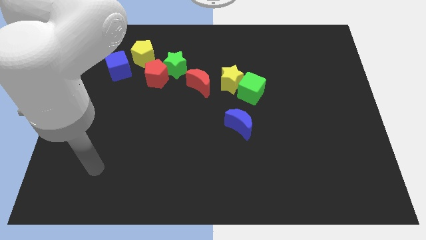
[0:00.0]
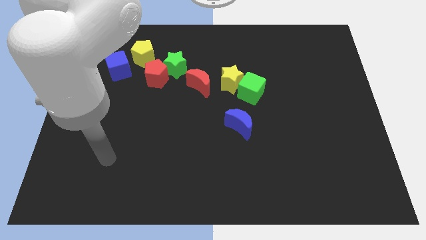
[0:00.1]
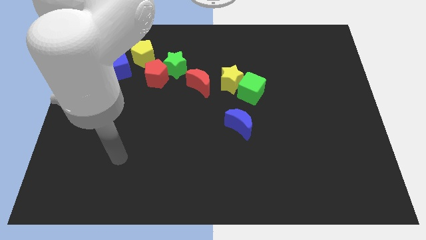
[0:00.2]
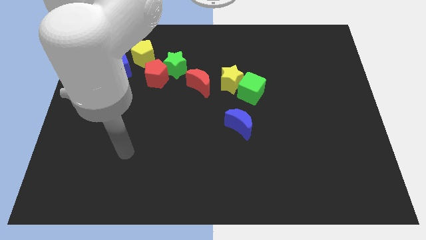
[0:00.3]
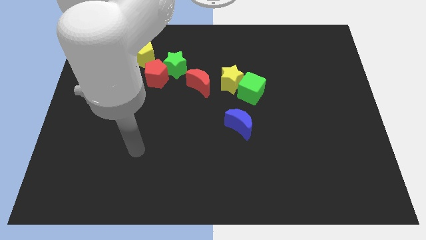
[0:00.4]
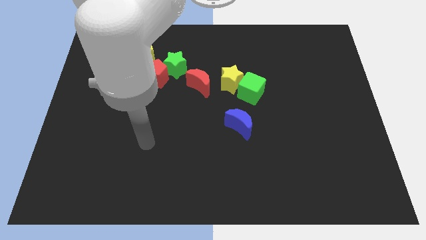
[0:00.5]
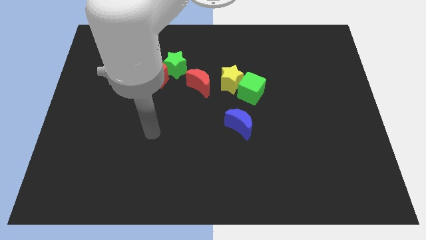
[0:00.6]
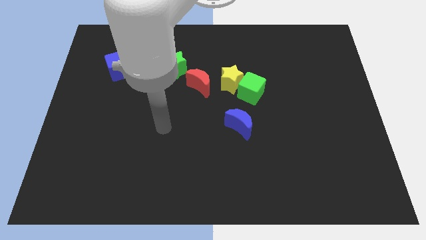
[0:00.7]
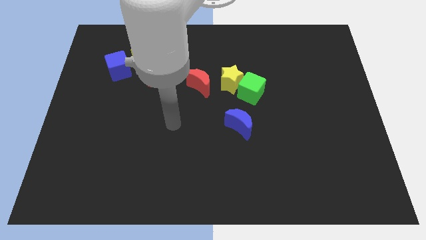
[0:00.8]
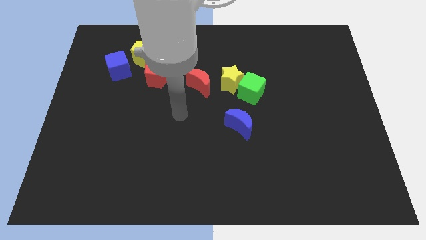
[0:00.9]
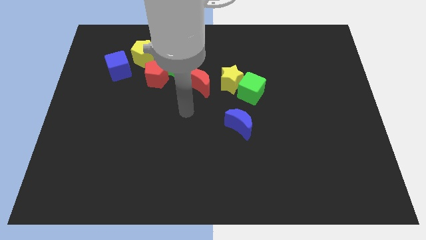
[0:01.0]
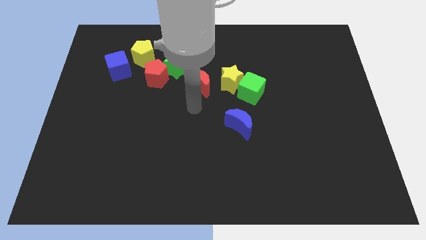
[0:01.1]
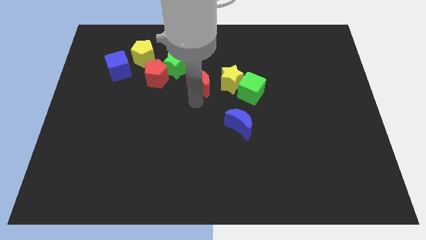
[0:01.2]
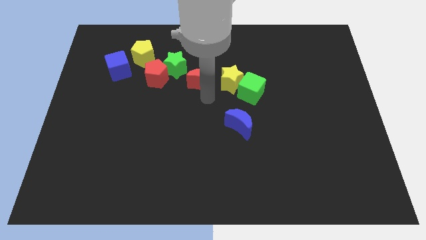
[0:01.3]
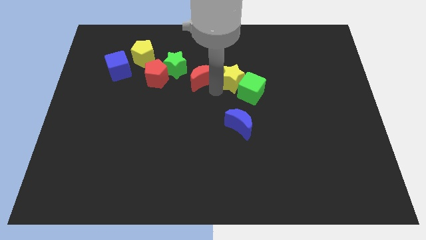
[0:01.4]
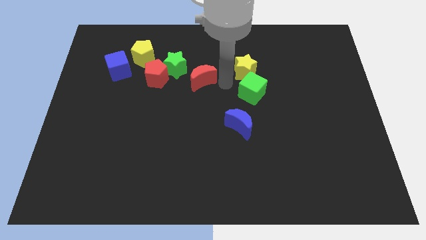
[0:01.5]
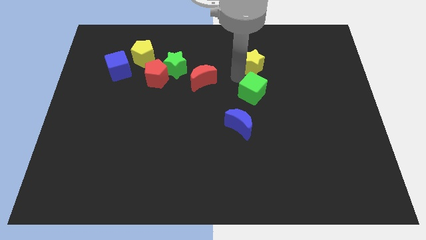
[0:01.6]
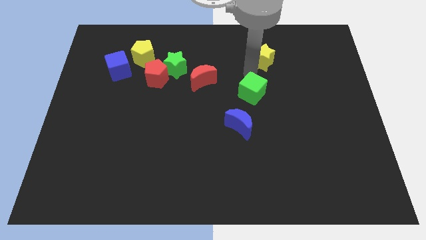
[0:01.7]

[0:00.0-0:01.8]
move the green cube away from the yellow star

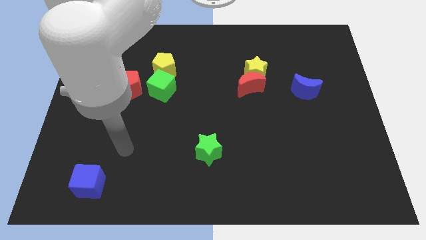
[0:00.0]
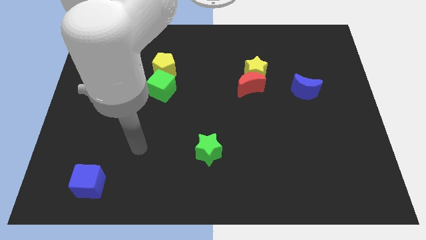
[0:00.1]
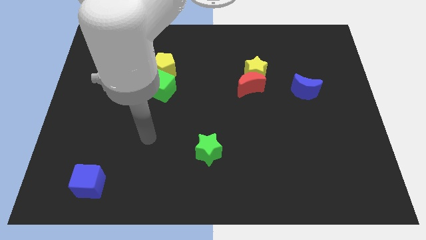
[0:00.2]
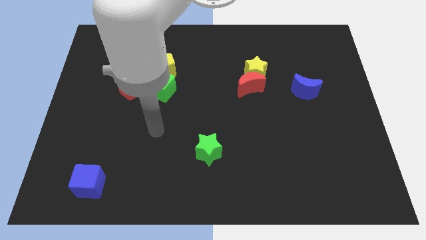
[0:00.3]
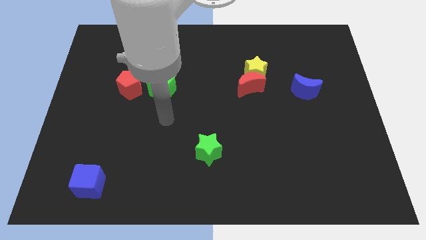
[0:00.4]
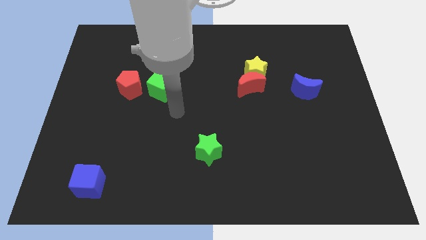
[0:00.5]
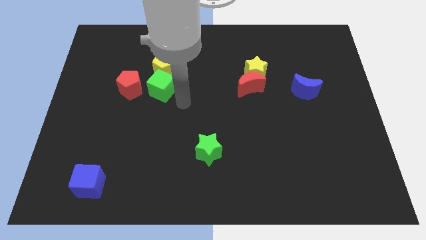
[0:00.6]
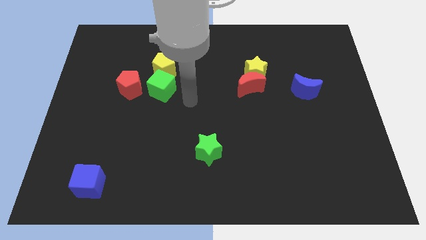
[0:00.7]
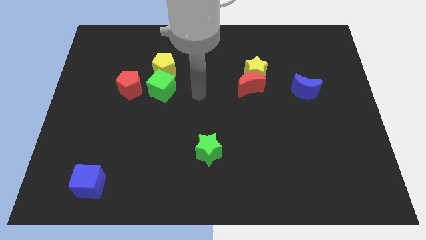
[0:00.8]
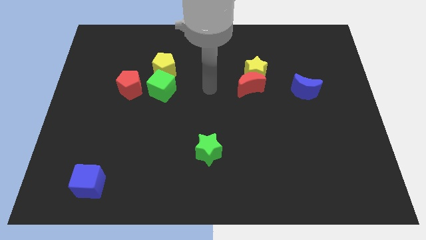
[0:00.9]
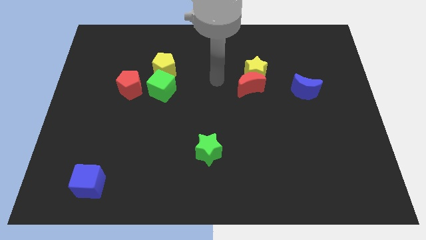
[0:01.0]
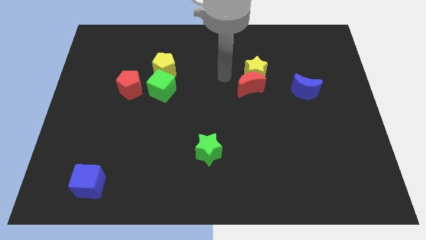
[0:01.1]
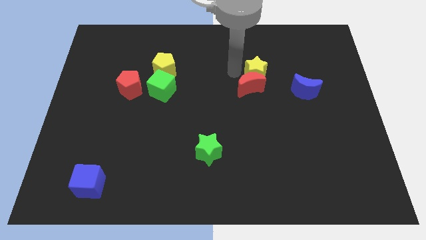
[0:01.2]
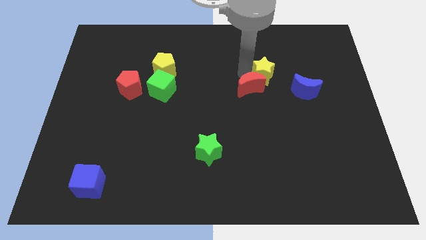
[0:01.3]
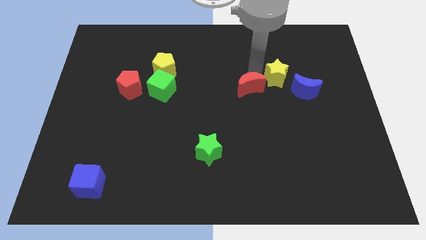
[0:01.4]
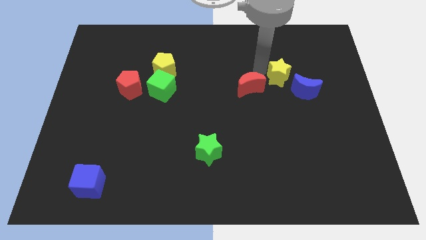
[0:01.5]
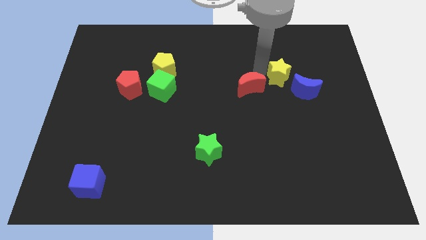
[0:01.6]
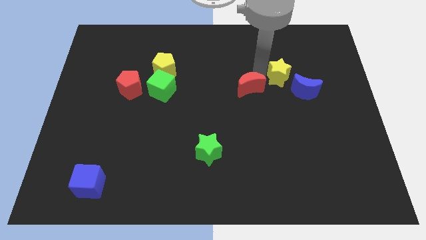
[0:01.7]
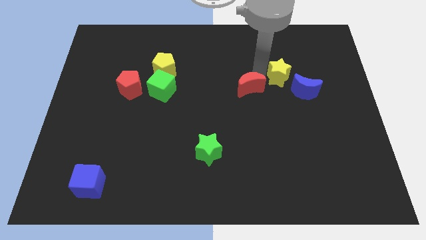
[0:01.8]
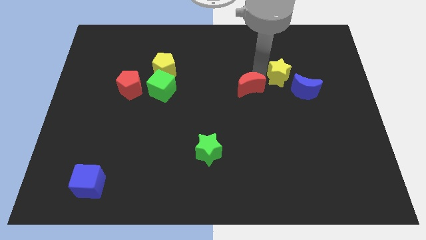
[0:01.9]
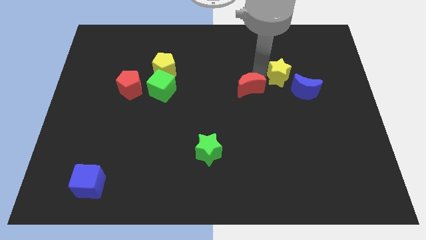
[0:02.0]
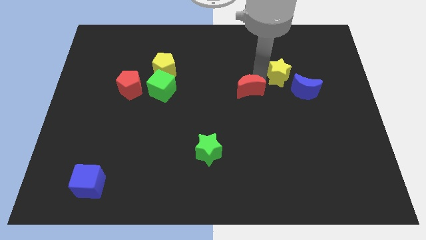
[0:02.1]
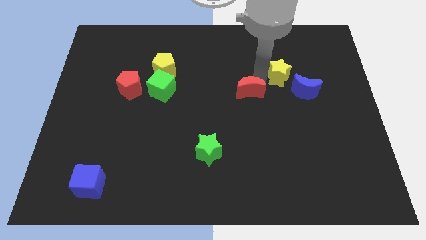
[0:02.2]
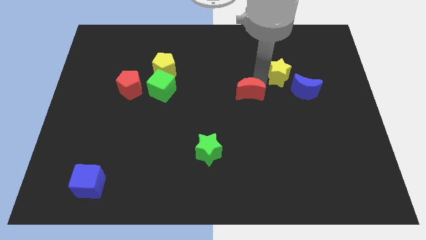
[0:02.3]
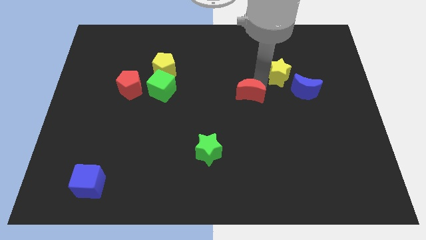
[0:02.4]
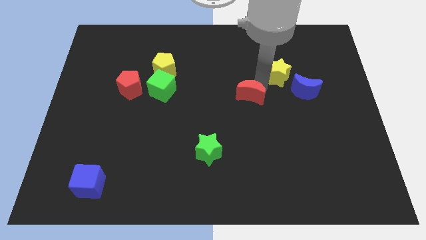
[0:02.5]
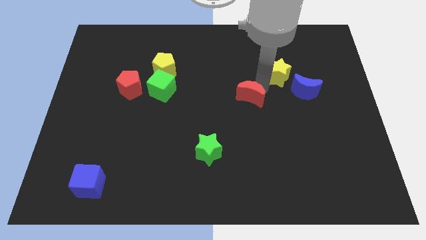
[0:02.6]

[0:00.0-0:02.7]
move the red moon away from the yellow star

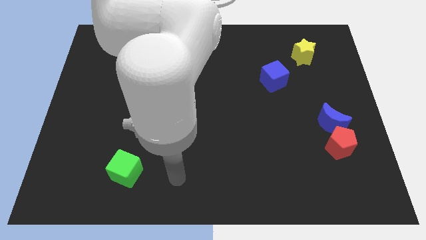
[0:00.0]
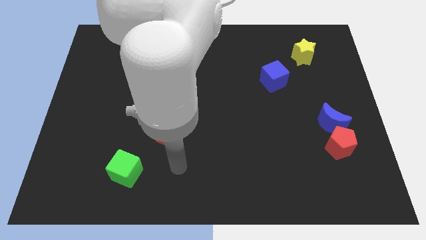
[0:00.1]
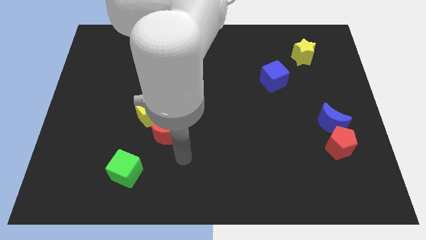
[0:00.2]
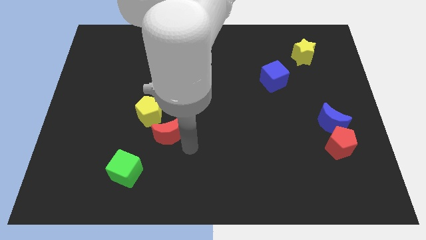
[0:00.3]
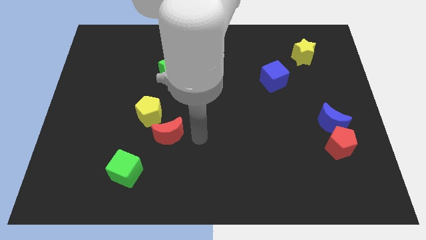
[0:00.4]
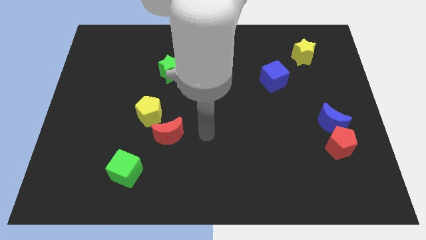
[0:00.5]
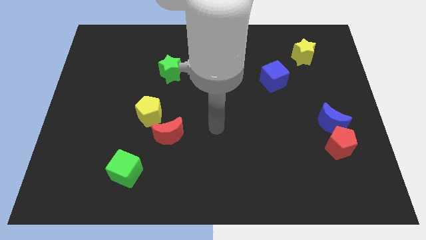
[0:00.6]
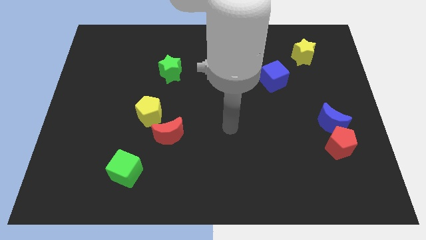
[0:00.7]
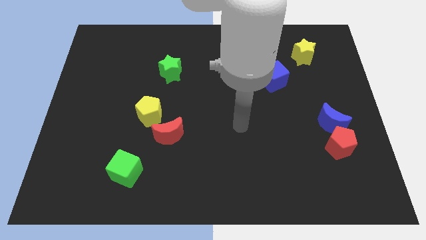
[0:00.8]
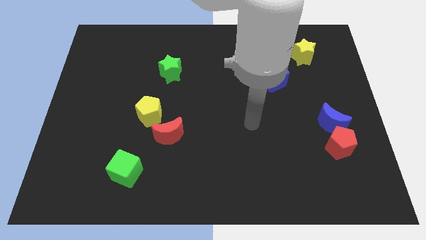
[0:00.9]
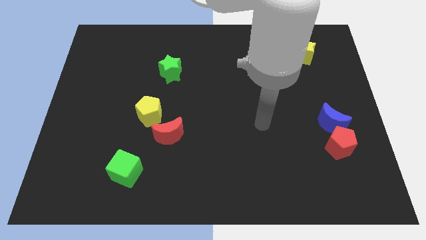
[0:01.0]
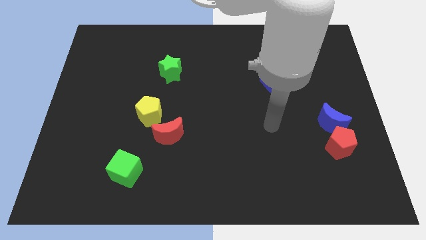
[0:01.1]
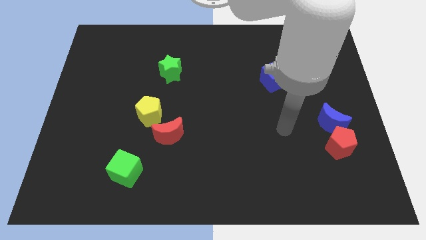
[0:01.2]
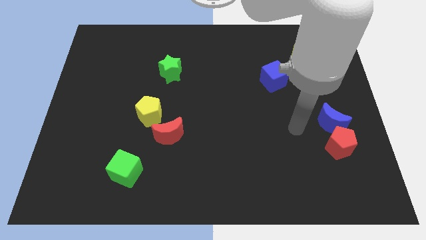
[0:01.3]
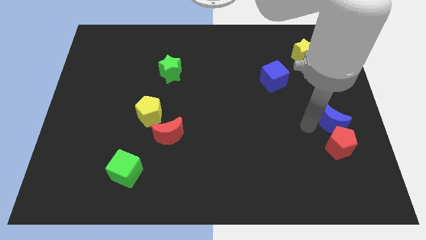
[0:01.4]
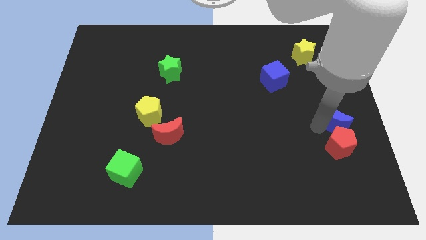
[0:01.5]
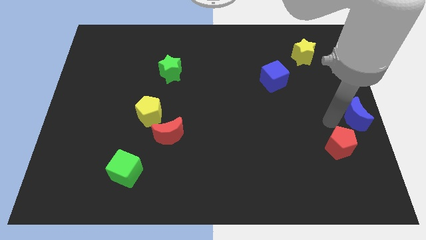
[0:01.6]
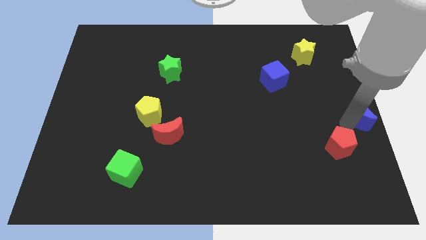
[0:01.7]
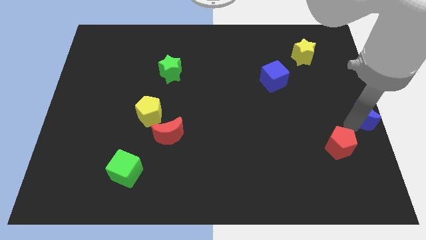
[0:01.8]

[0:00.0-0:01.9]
separate the red pentagon from the blue moon

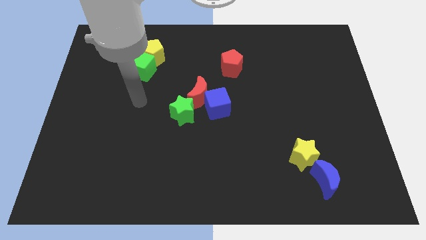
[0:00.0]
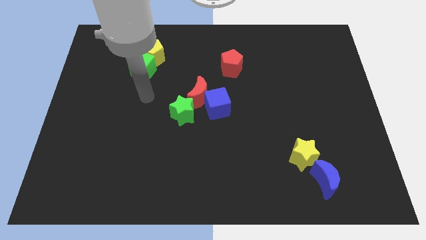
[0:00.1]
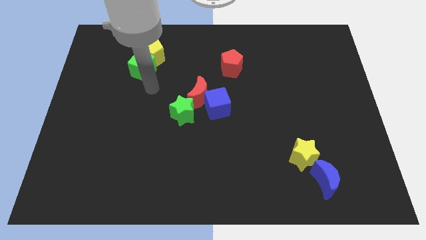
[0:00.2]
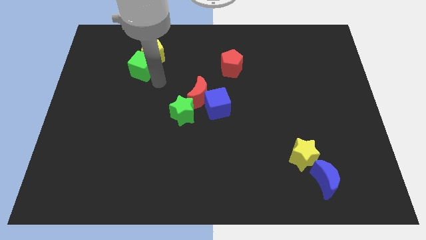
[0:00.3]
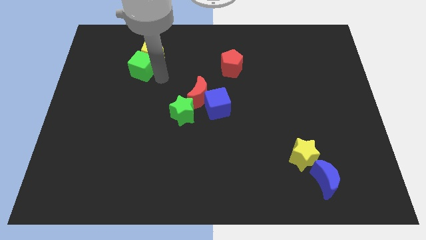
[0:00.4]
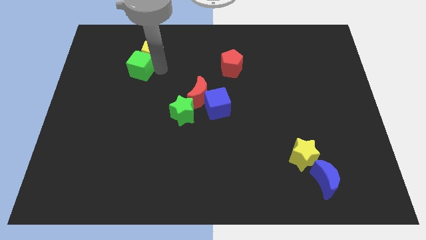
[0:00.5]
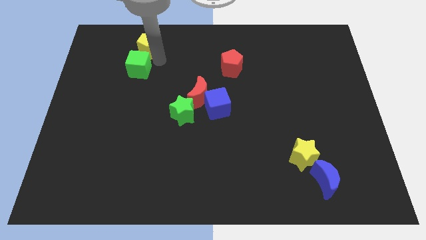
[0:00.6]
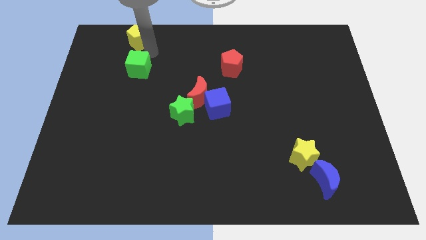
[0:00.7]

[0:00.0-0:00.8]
pull the green cube apart from the yellow pentagon

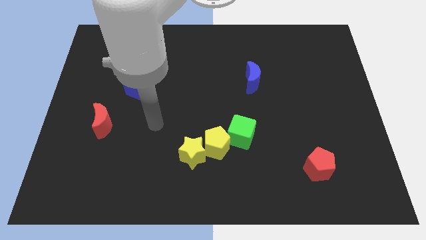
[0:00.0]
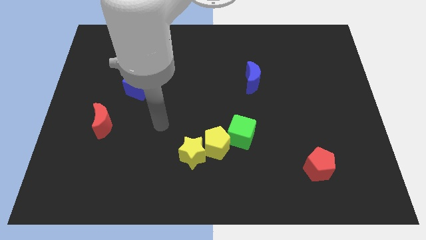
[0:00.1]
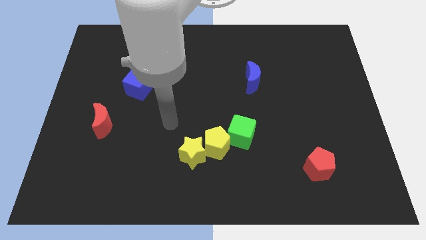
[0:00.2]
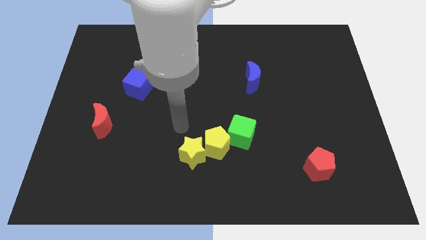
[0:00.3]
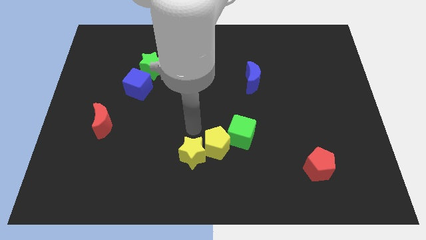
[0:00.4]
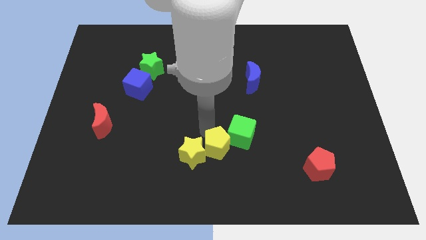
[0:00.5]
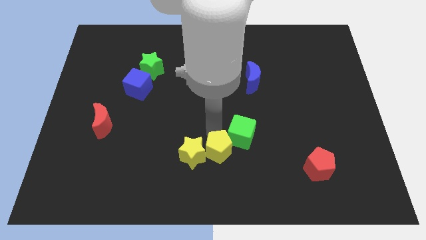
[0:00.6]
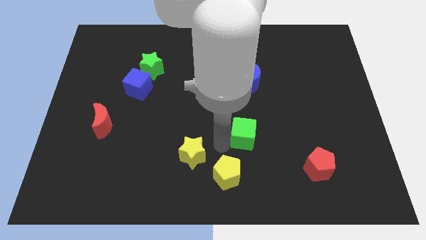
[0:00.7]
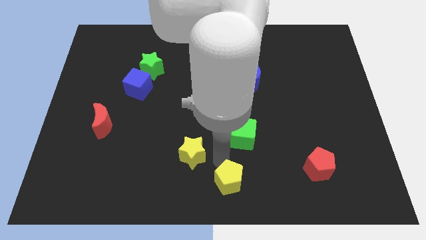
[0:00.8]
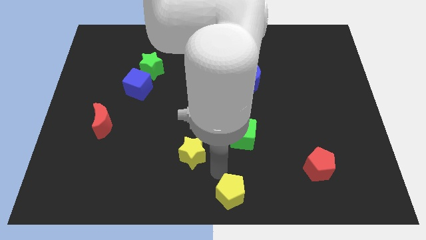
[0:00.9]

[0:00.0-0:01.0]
move the yellow star away from the yellow pentagon

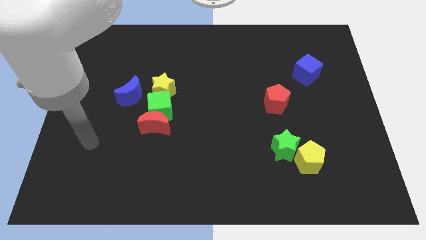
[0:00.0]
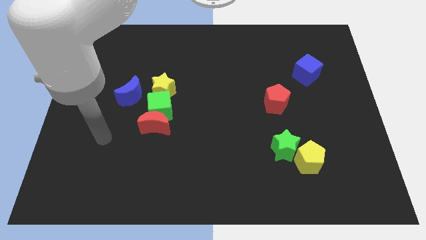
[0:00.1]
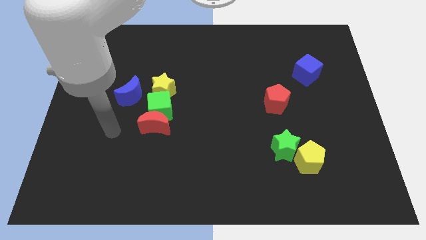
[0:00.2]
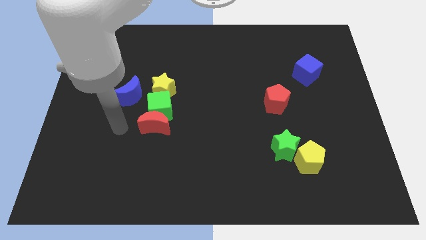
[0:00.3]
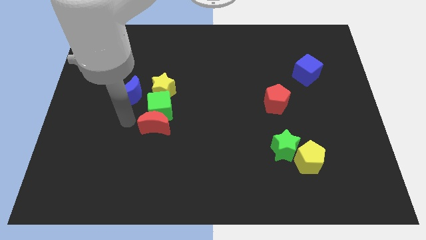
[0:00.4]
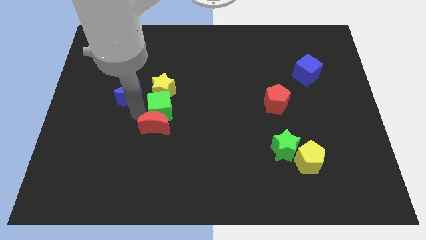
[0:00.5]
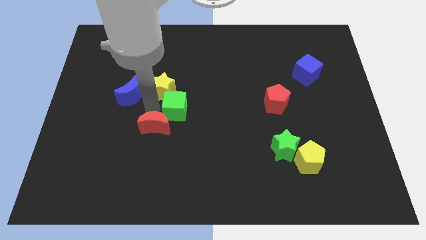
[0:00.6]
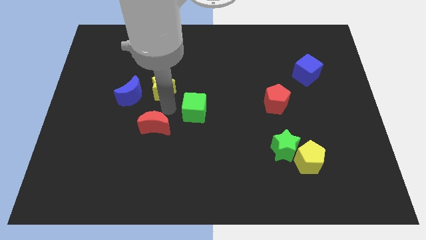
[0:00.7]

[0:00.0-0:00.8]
pull the red moon apart from the green cube
